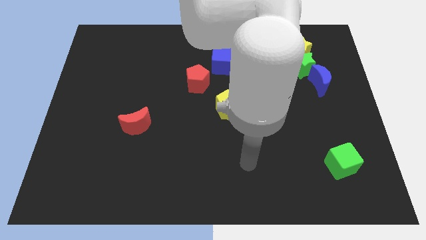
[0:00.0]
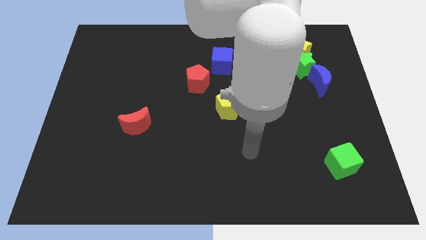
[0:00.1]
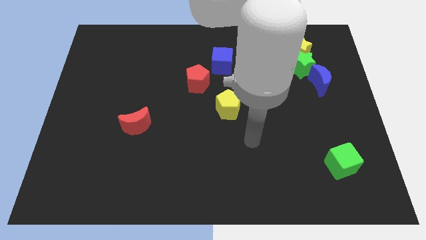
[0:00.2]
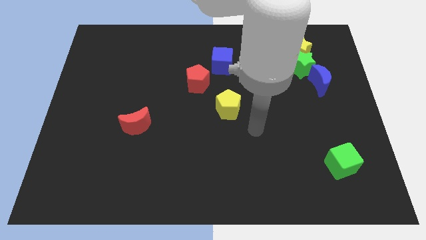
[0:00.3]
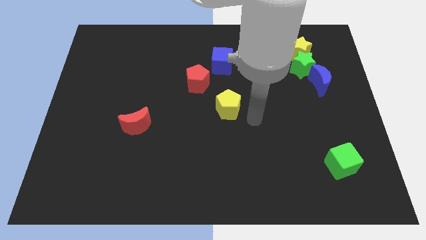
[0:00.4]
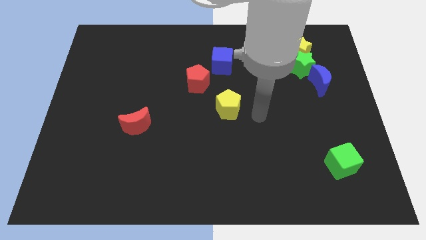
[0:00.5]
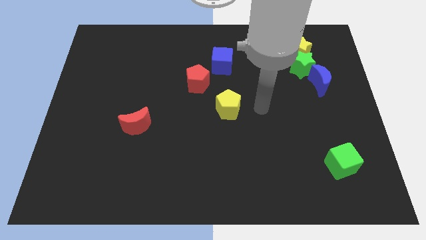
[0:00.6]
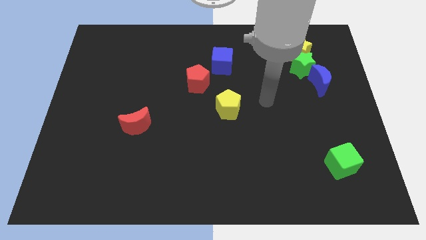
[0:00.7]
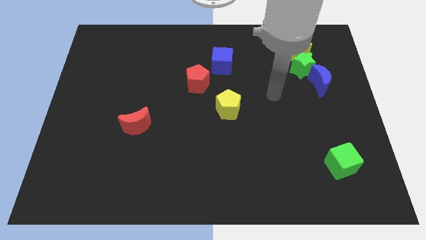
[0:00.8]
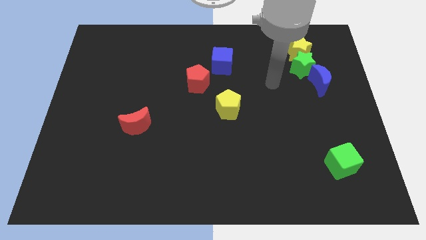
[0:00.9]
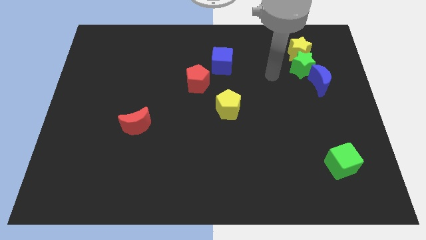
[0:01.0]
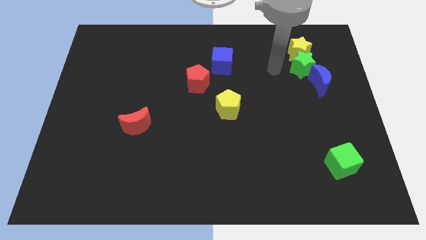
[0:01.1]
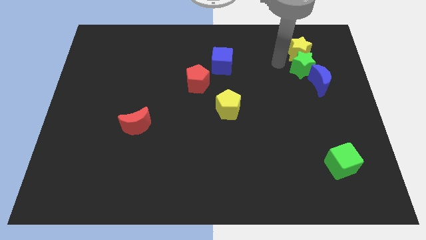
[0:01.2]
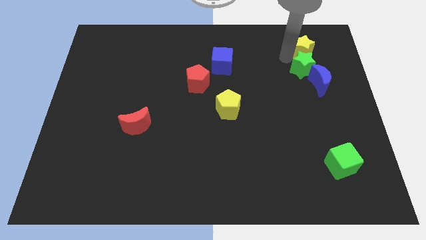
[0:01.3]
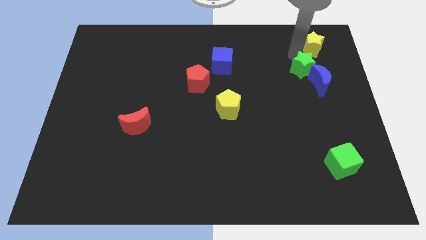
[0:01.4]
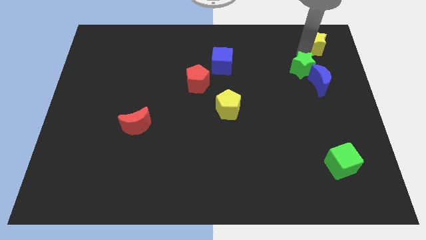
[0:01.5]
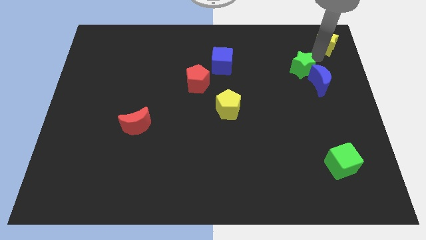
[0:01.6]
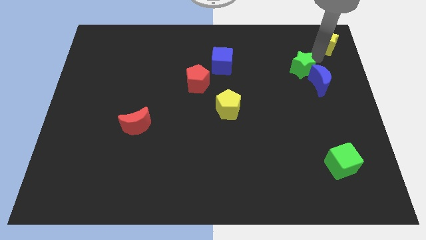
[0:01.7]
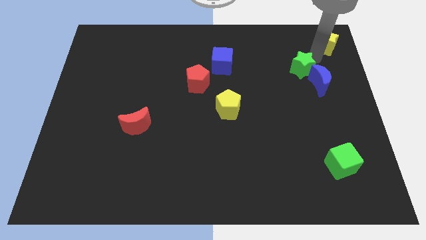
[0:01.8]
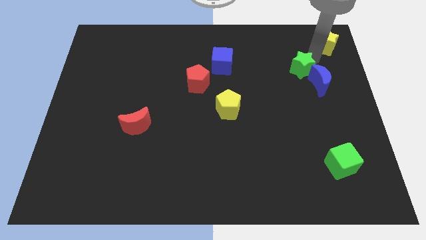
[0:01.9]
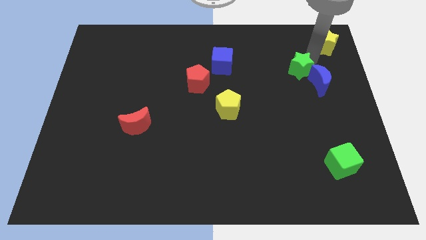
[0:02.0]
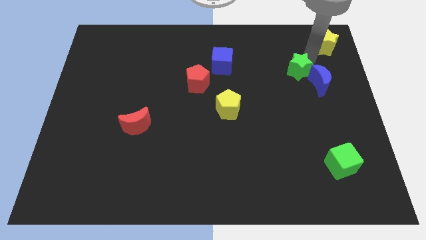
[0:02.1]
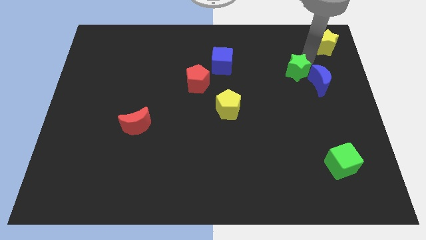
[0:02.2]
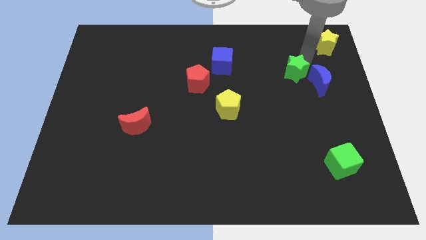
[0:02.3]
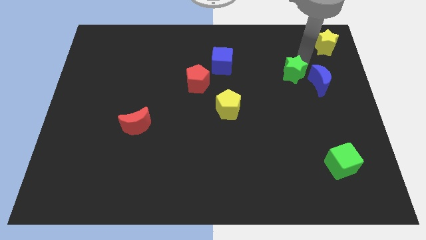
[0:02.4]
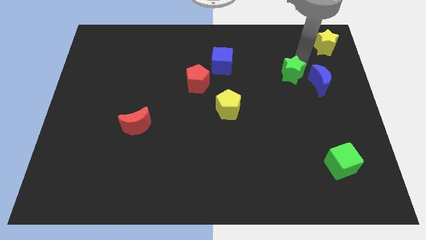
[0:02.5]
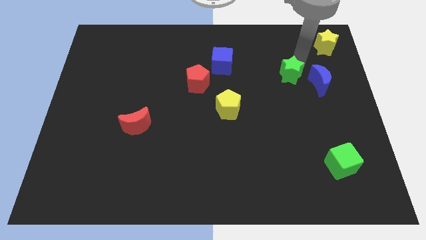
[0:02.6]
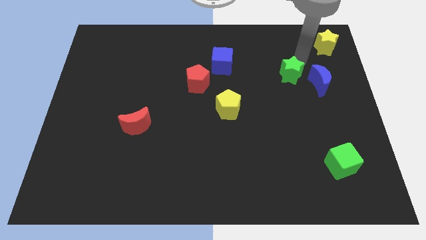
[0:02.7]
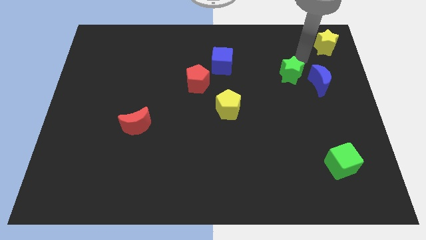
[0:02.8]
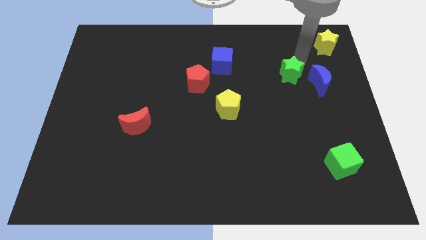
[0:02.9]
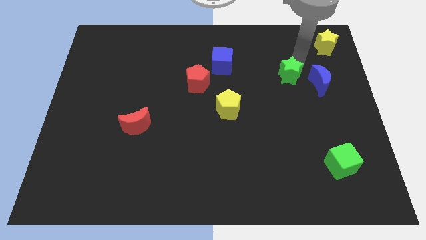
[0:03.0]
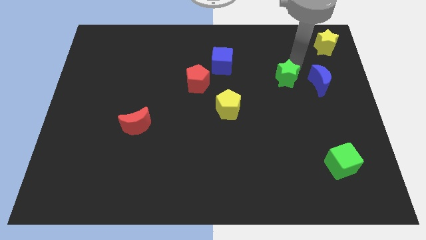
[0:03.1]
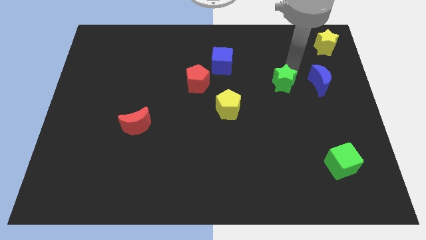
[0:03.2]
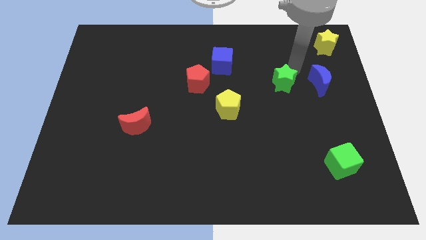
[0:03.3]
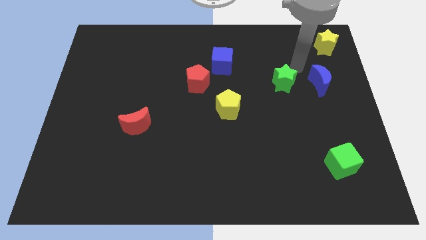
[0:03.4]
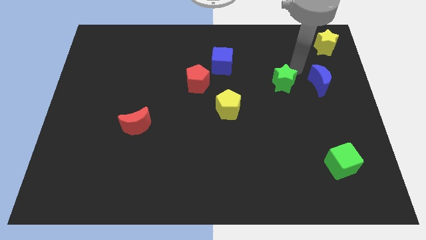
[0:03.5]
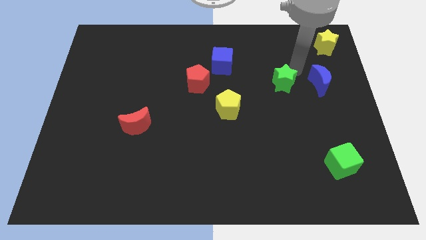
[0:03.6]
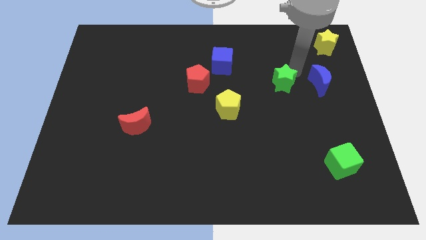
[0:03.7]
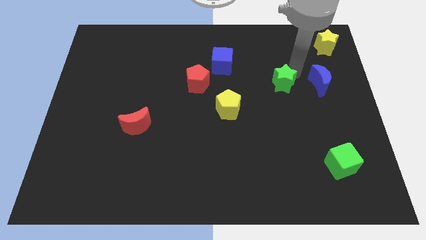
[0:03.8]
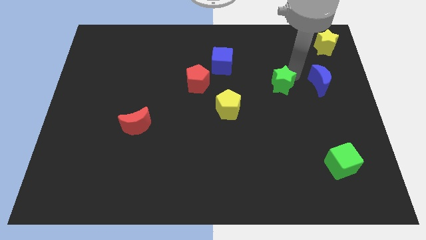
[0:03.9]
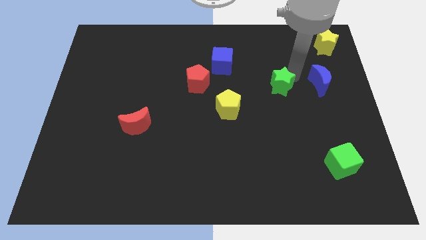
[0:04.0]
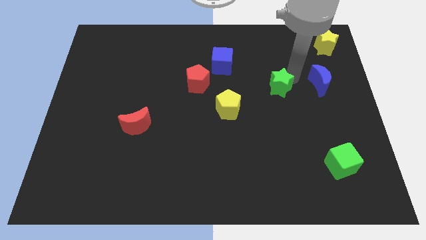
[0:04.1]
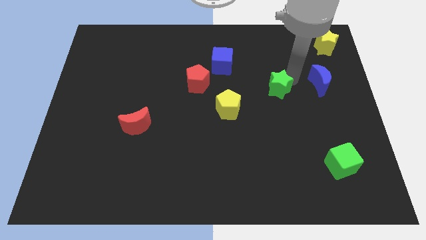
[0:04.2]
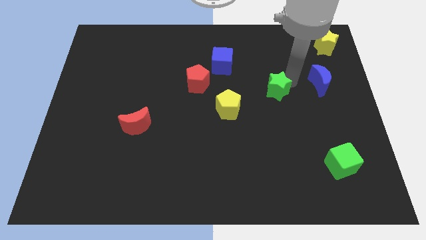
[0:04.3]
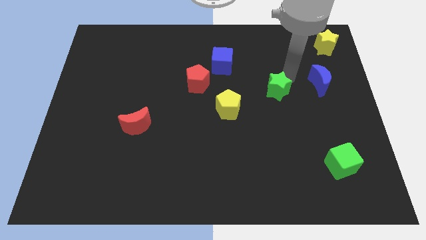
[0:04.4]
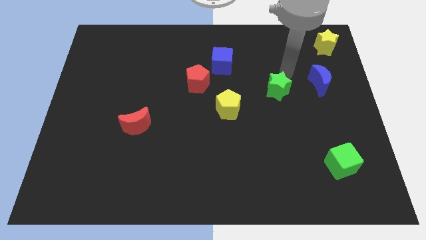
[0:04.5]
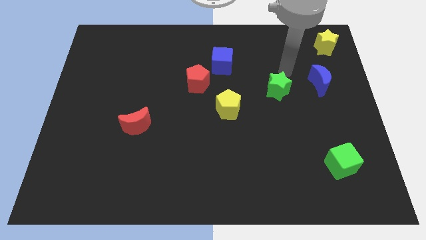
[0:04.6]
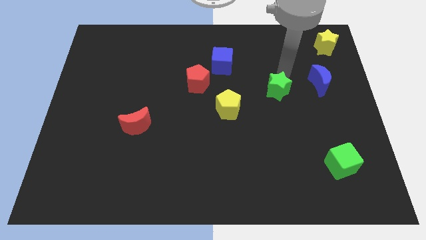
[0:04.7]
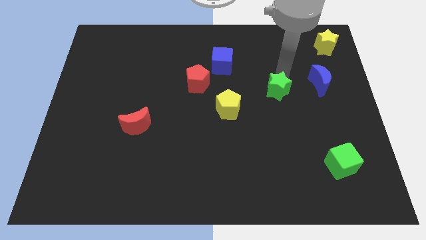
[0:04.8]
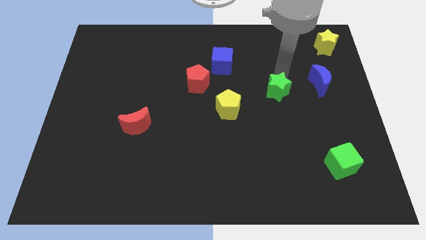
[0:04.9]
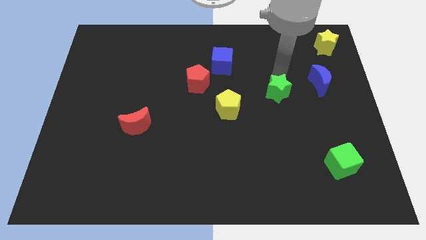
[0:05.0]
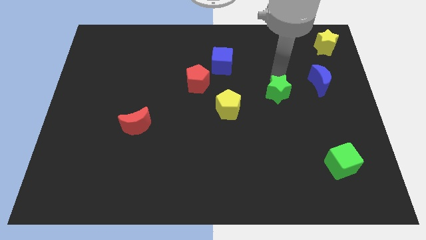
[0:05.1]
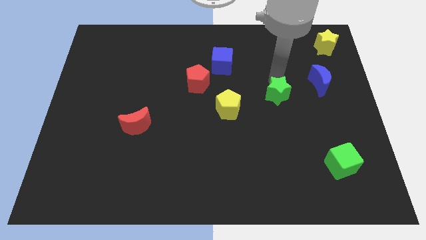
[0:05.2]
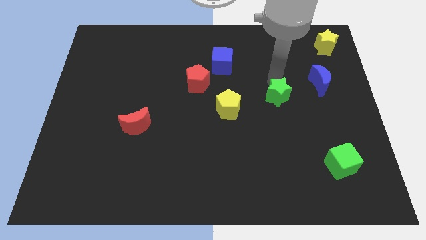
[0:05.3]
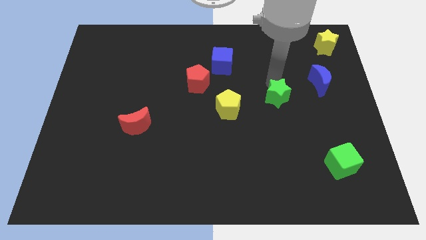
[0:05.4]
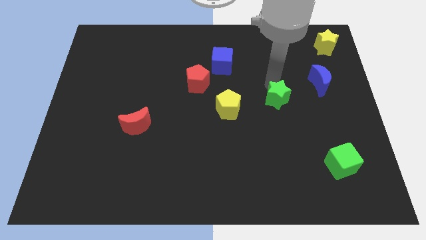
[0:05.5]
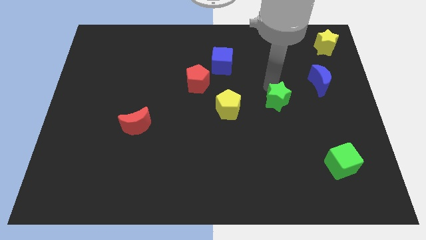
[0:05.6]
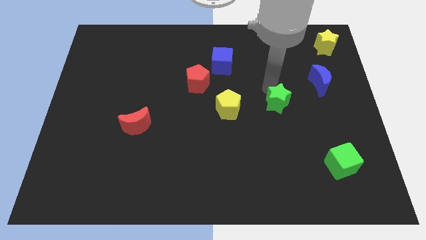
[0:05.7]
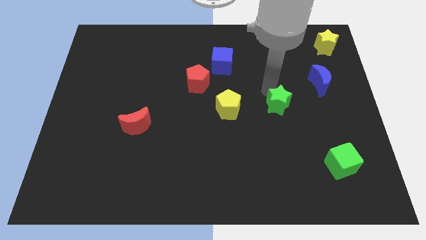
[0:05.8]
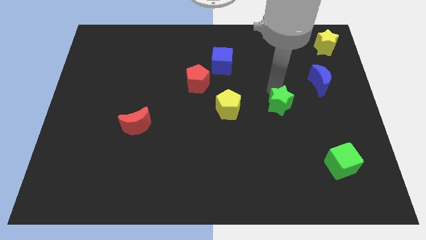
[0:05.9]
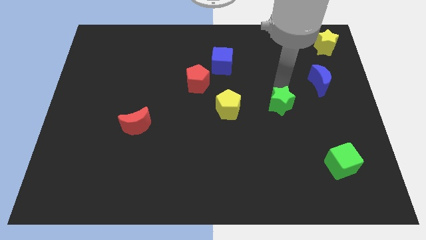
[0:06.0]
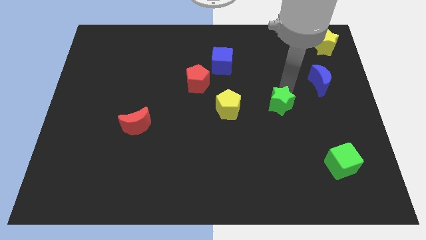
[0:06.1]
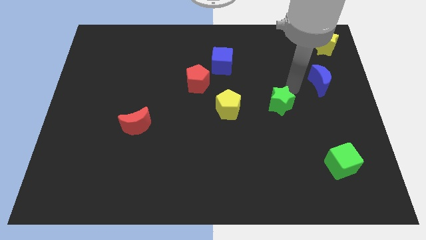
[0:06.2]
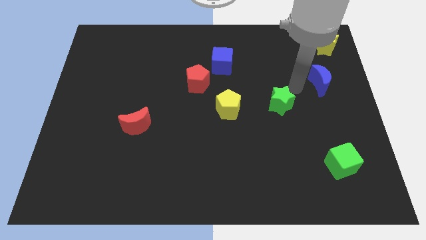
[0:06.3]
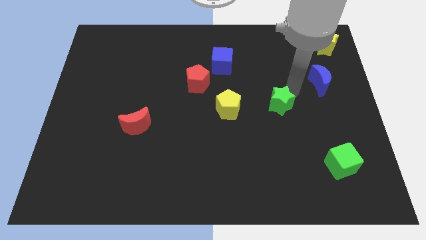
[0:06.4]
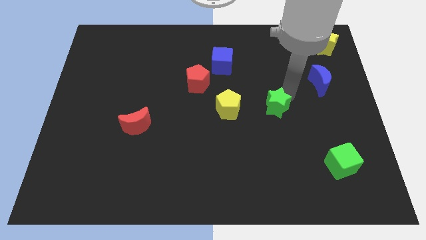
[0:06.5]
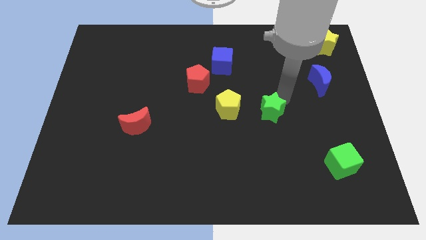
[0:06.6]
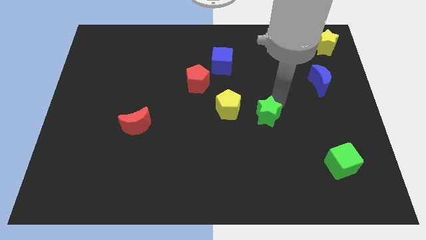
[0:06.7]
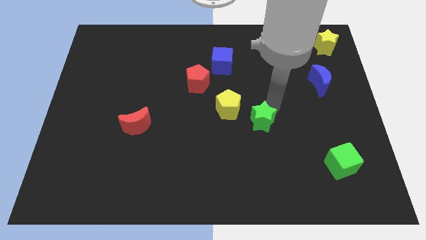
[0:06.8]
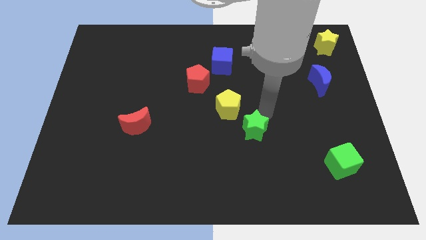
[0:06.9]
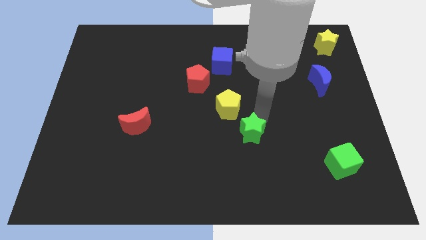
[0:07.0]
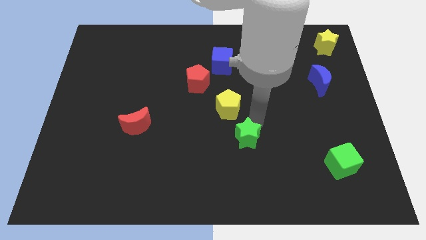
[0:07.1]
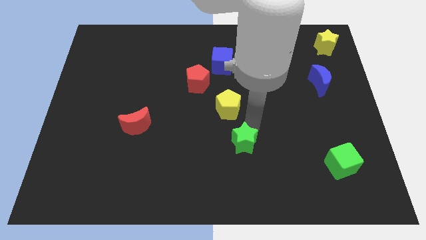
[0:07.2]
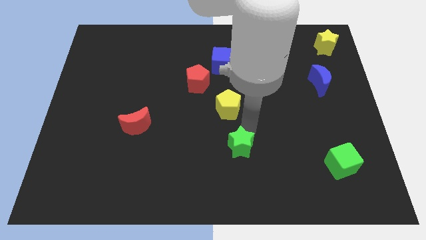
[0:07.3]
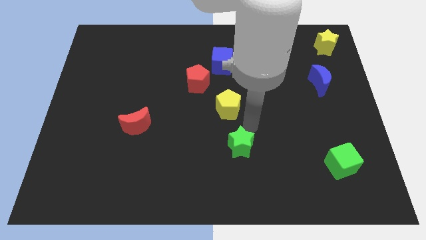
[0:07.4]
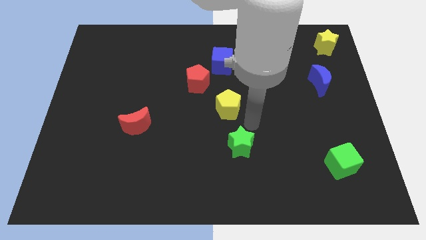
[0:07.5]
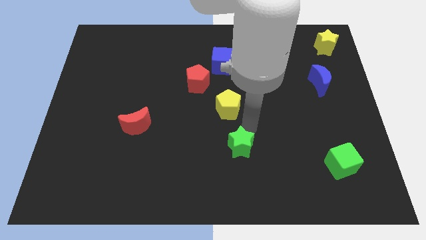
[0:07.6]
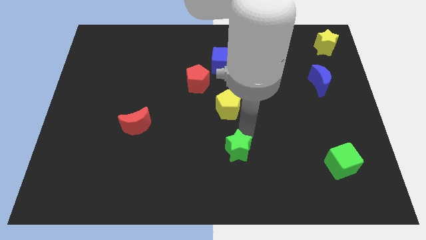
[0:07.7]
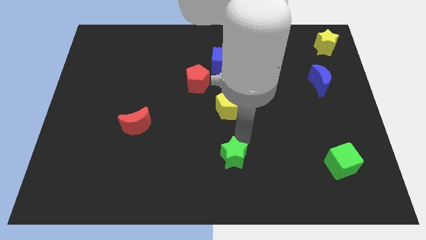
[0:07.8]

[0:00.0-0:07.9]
move the green star to the bottom
